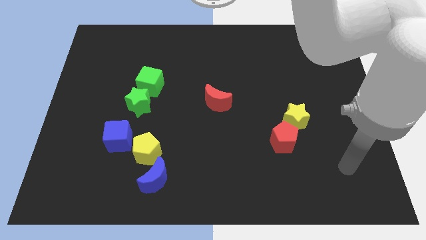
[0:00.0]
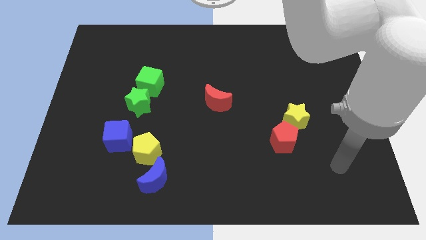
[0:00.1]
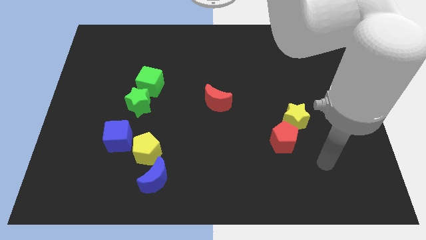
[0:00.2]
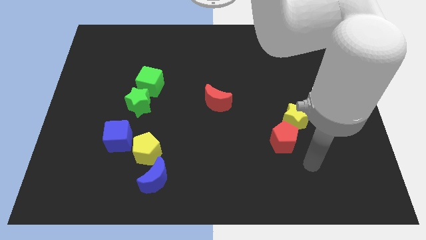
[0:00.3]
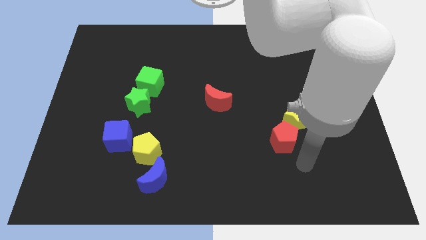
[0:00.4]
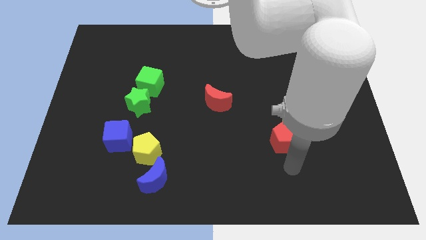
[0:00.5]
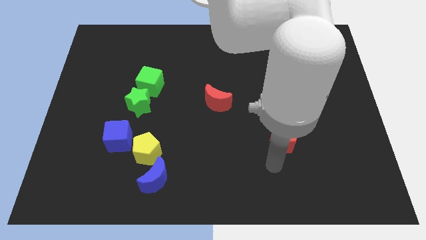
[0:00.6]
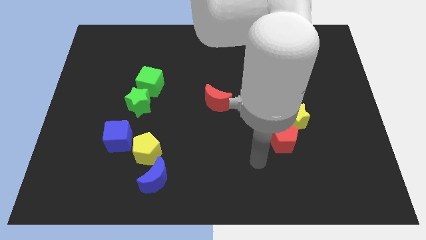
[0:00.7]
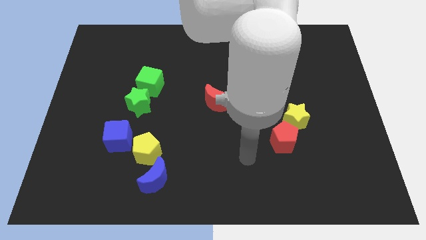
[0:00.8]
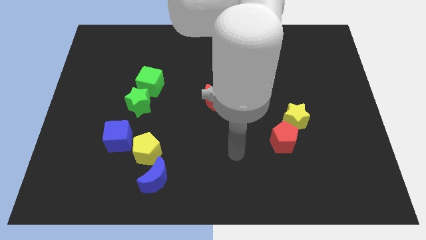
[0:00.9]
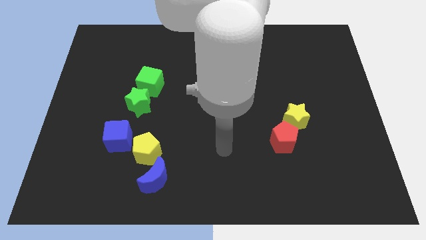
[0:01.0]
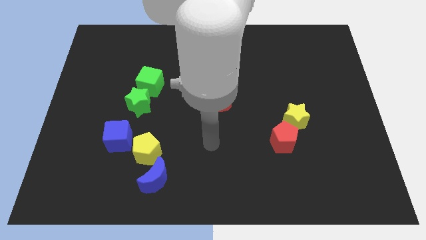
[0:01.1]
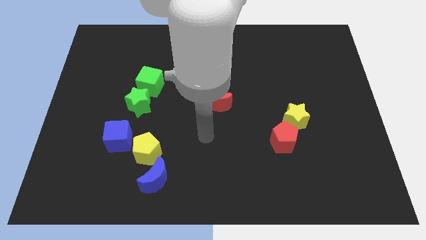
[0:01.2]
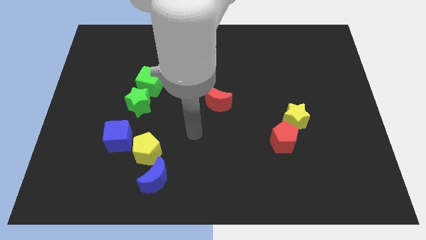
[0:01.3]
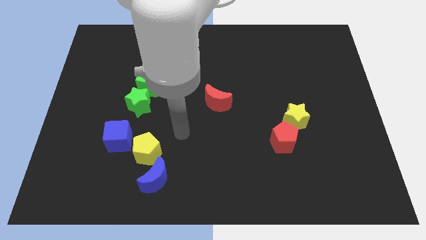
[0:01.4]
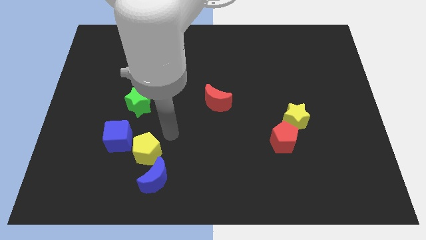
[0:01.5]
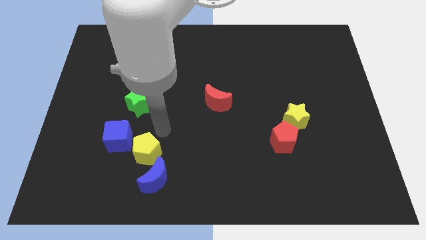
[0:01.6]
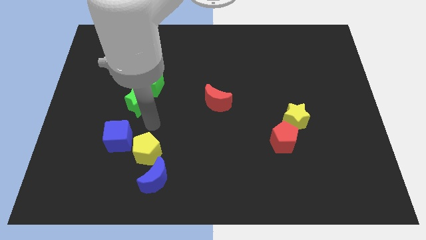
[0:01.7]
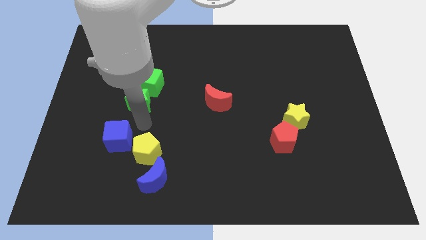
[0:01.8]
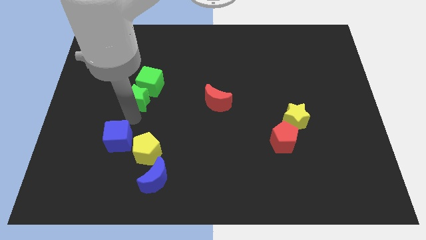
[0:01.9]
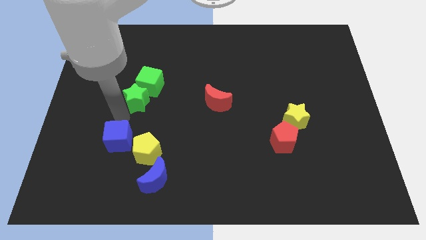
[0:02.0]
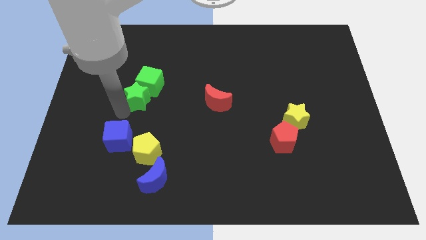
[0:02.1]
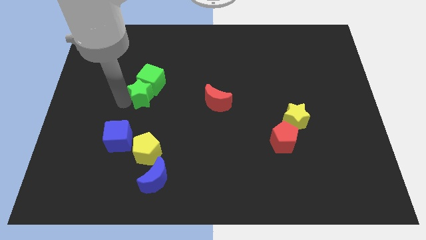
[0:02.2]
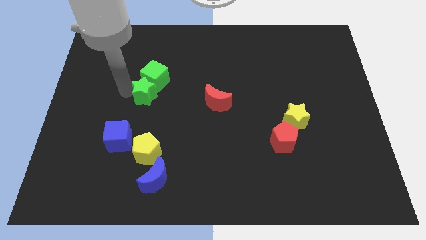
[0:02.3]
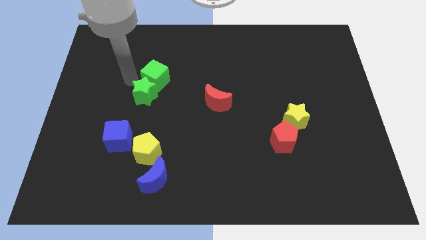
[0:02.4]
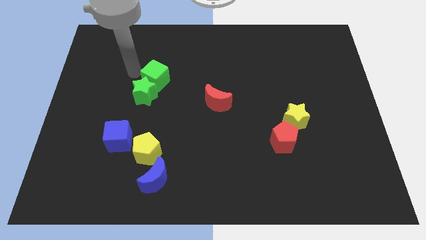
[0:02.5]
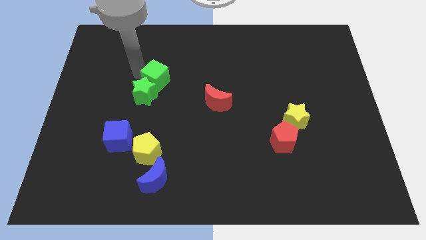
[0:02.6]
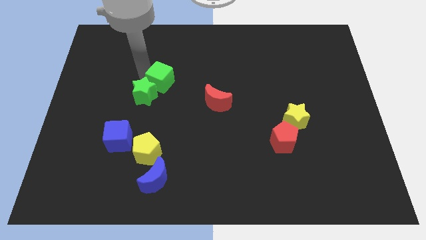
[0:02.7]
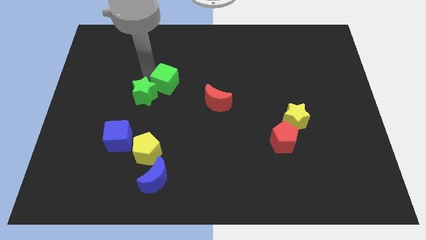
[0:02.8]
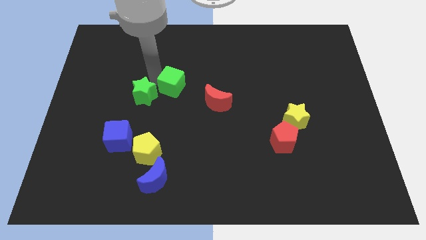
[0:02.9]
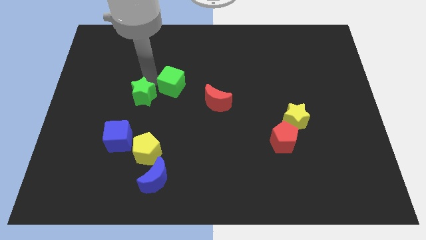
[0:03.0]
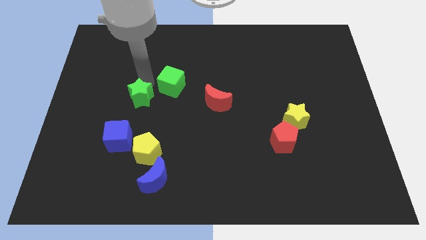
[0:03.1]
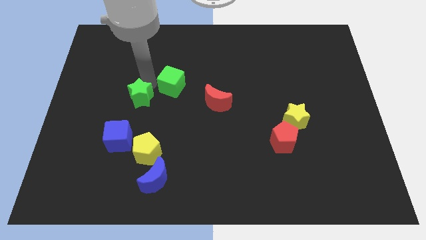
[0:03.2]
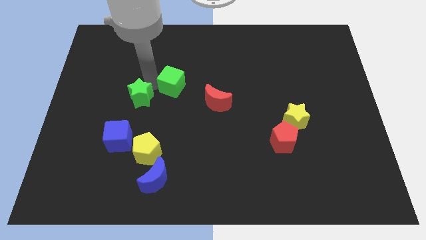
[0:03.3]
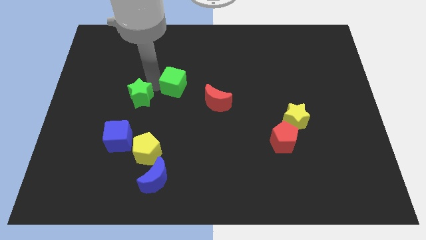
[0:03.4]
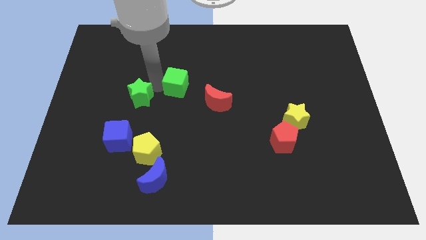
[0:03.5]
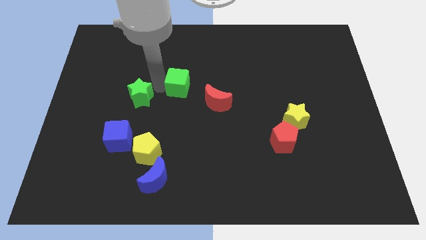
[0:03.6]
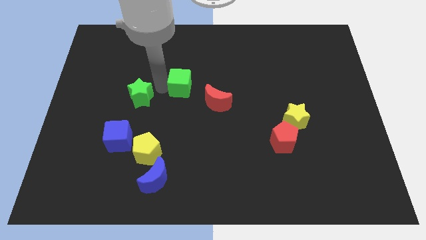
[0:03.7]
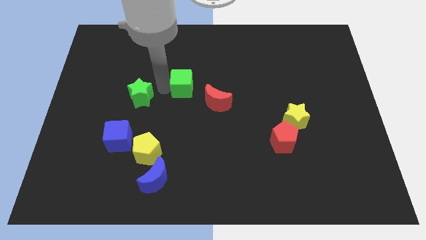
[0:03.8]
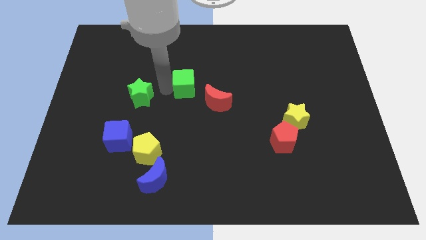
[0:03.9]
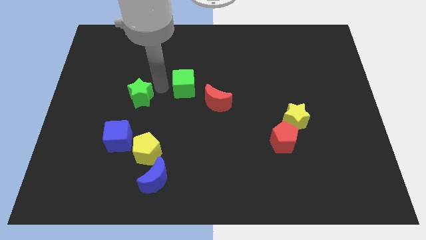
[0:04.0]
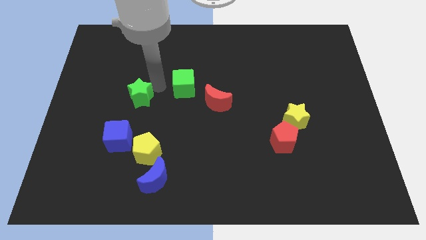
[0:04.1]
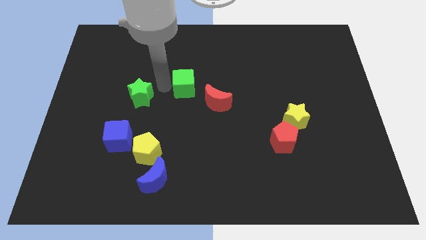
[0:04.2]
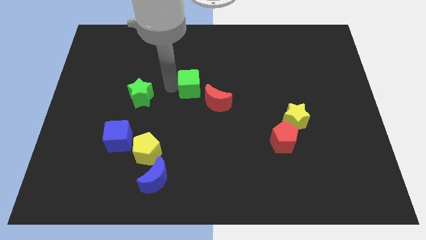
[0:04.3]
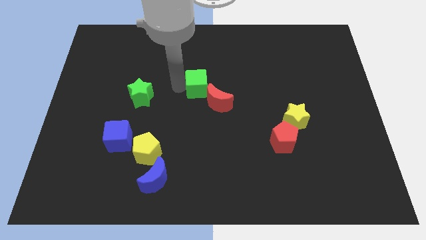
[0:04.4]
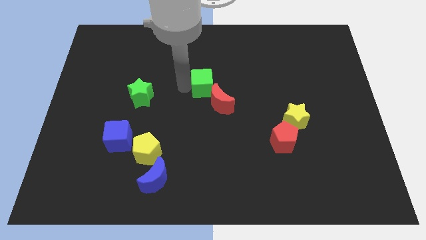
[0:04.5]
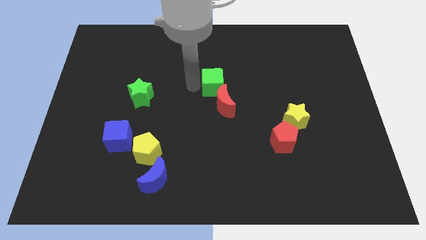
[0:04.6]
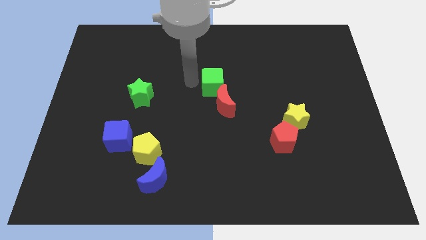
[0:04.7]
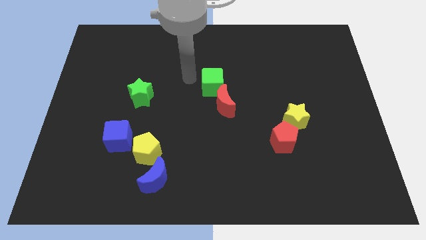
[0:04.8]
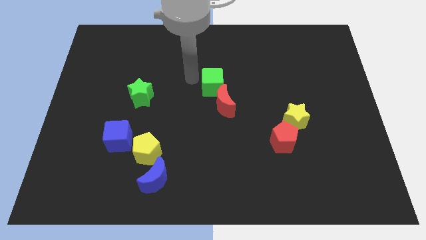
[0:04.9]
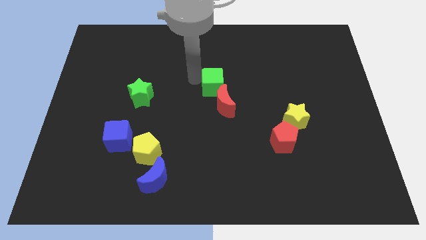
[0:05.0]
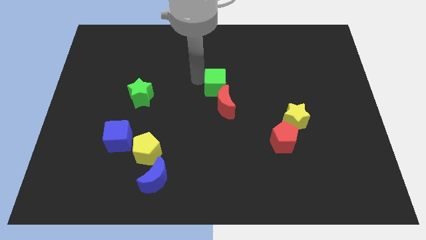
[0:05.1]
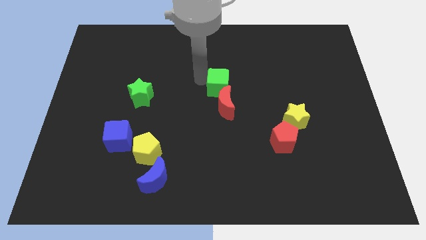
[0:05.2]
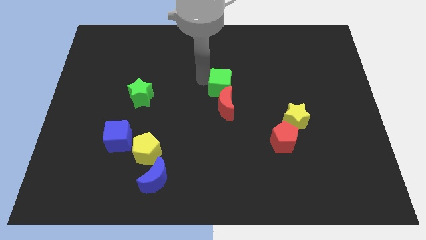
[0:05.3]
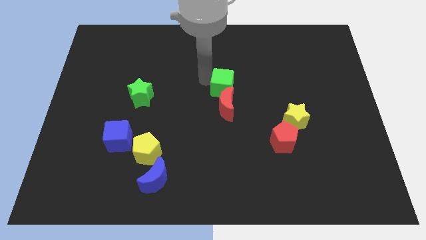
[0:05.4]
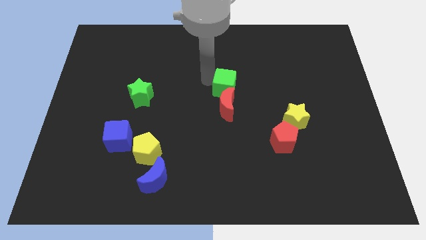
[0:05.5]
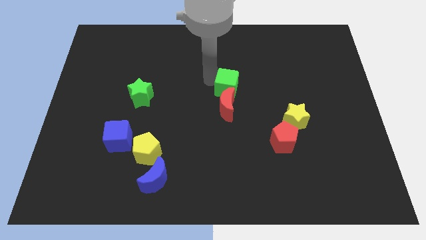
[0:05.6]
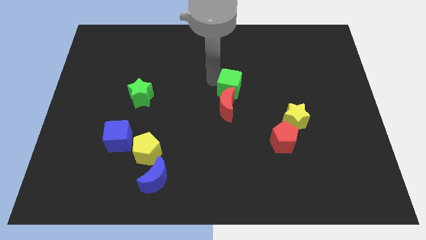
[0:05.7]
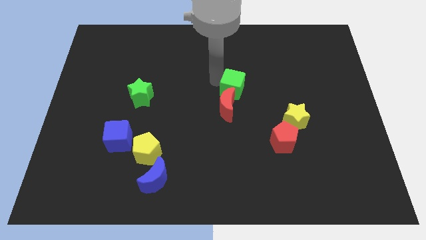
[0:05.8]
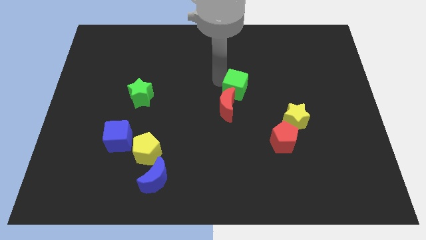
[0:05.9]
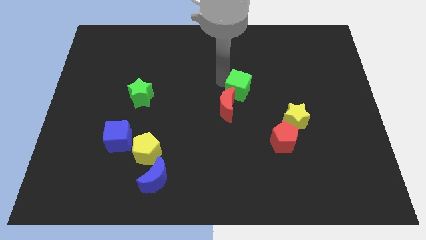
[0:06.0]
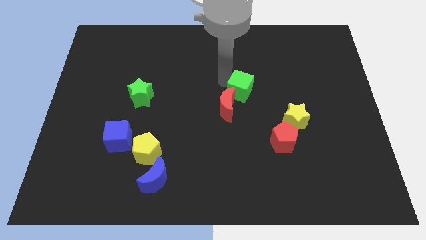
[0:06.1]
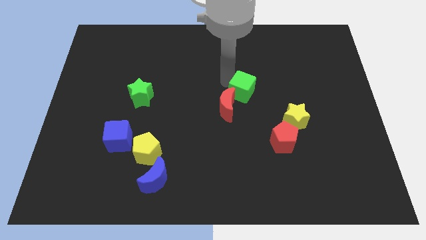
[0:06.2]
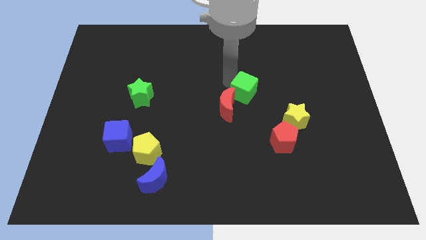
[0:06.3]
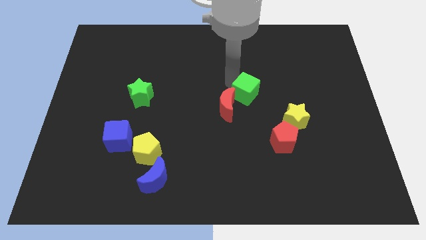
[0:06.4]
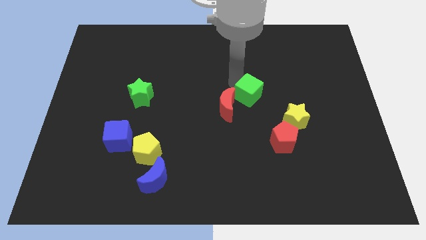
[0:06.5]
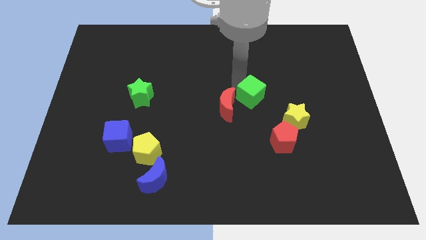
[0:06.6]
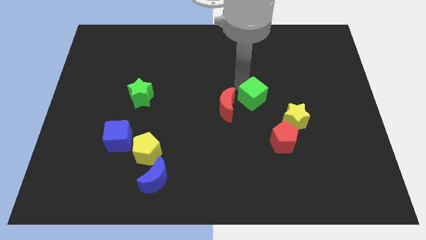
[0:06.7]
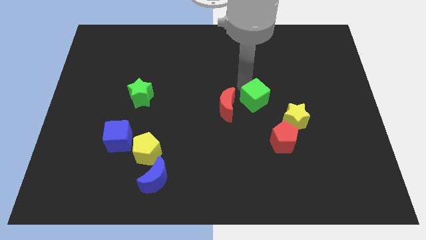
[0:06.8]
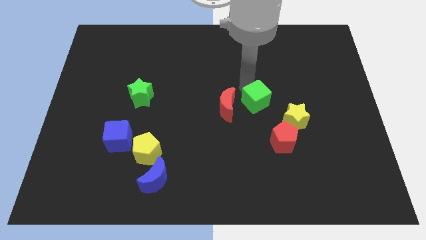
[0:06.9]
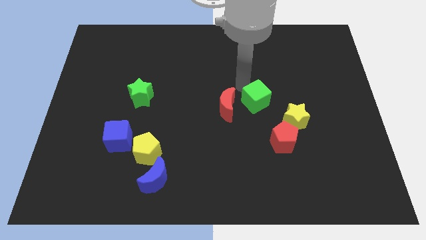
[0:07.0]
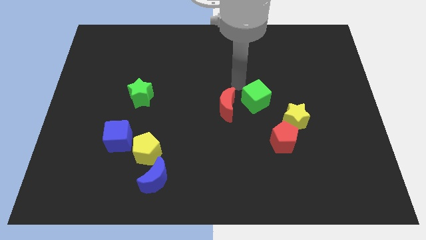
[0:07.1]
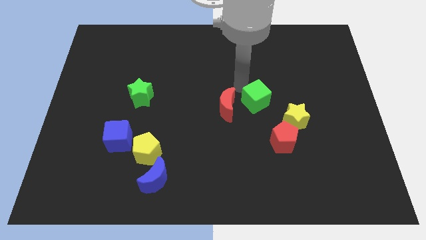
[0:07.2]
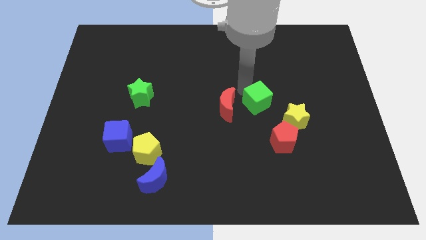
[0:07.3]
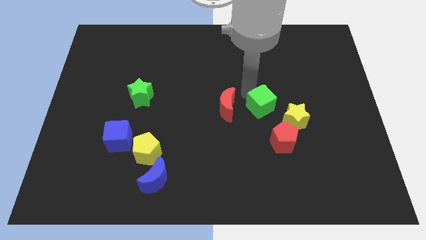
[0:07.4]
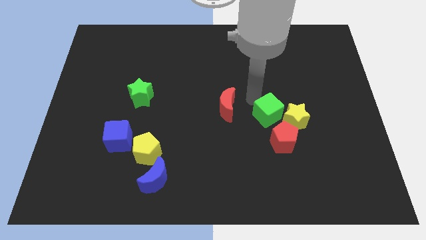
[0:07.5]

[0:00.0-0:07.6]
slide the green cube next to the yellow star

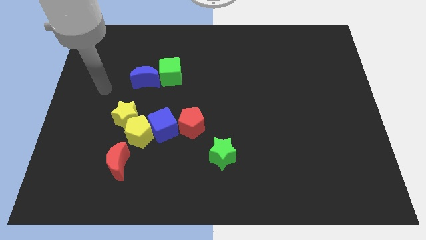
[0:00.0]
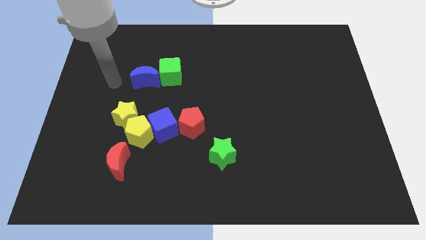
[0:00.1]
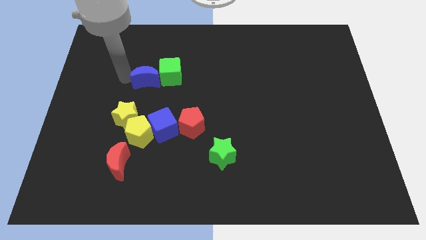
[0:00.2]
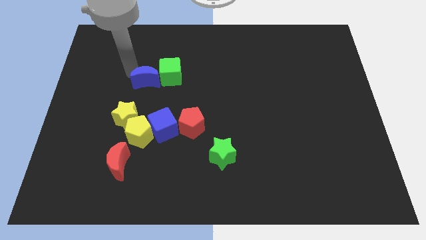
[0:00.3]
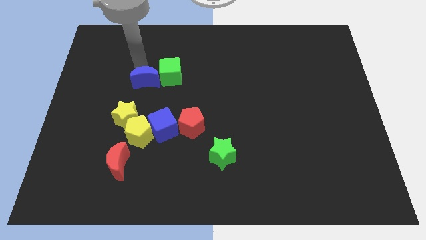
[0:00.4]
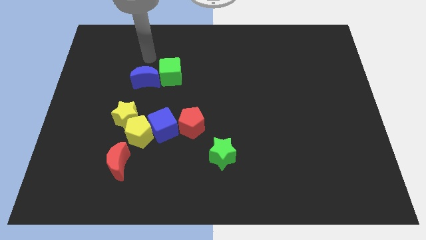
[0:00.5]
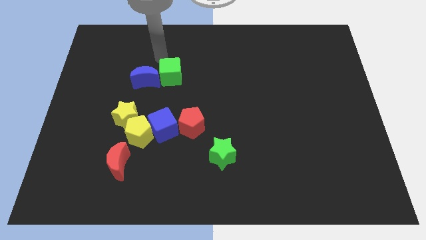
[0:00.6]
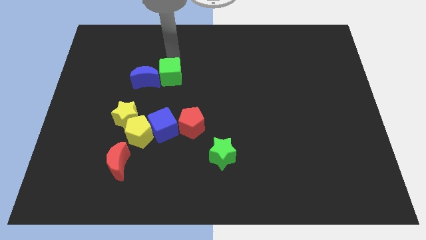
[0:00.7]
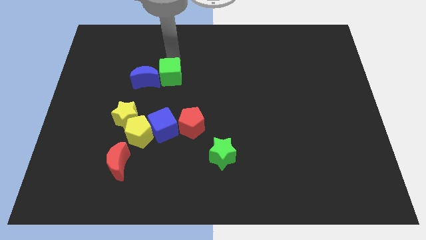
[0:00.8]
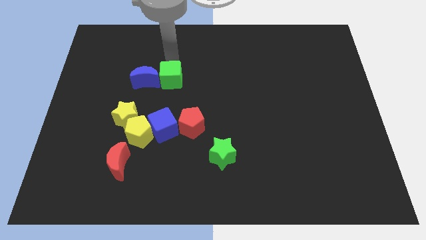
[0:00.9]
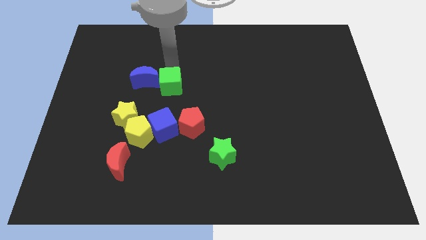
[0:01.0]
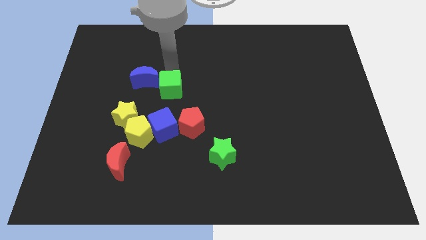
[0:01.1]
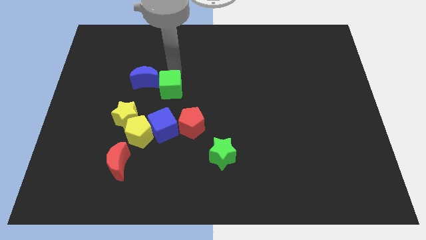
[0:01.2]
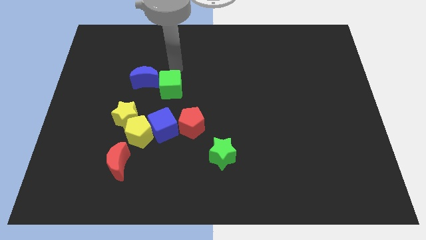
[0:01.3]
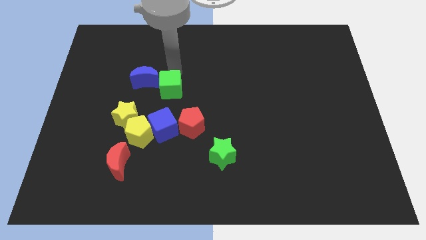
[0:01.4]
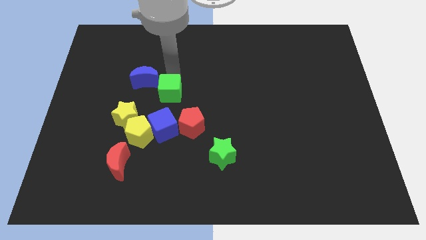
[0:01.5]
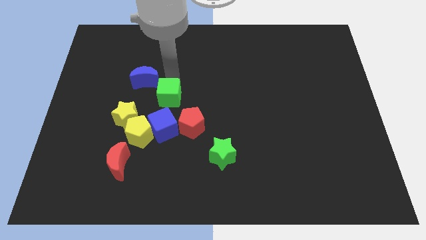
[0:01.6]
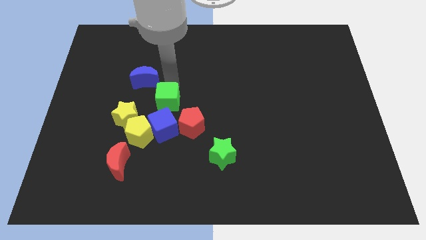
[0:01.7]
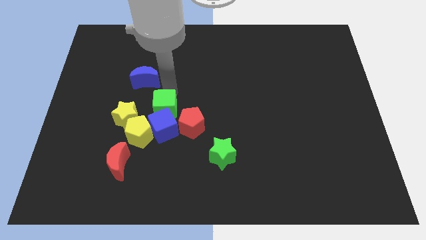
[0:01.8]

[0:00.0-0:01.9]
put the green cube towards the blue cube
